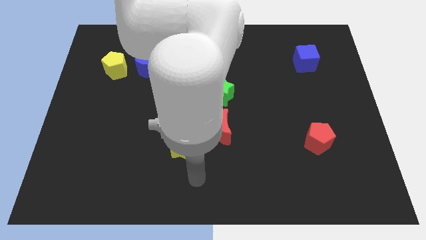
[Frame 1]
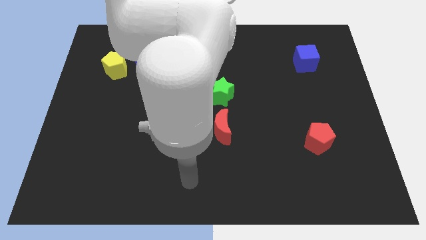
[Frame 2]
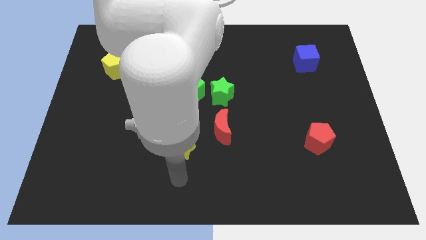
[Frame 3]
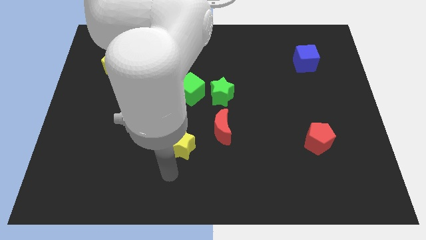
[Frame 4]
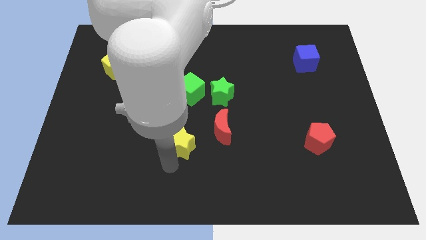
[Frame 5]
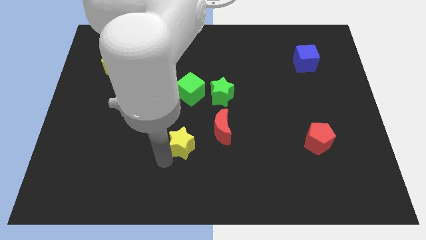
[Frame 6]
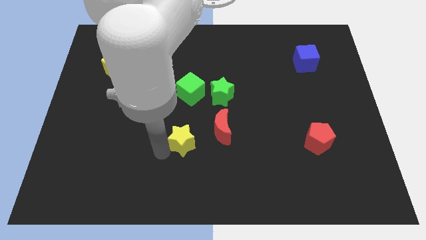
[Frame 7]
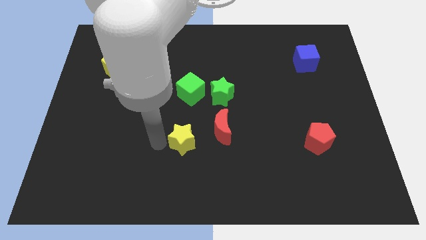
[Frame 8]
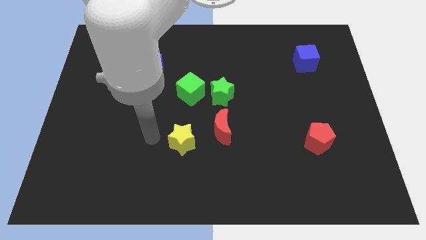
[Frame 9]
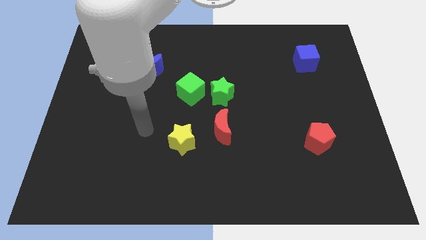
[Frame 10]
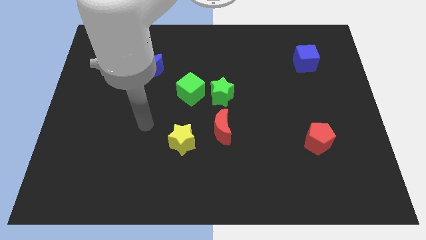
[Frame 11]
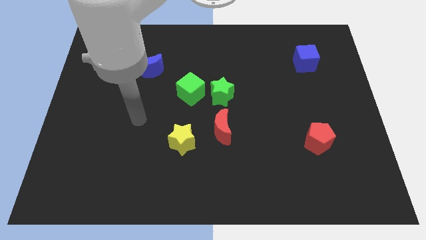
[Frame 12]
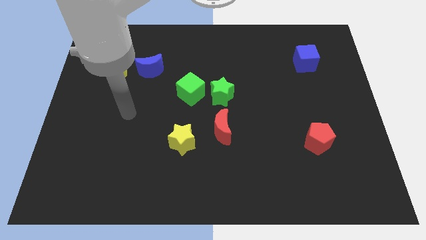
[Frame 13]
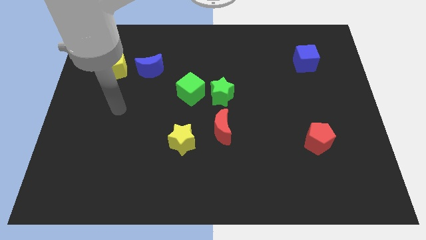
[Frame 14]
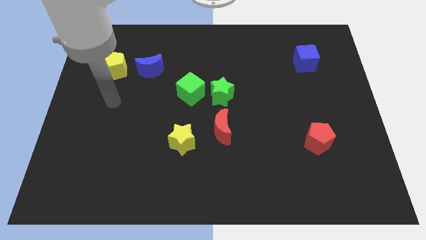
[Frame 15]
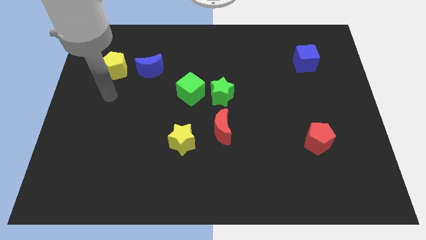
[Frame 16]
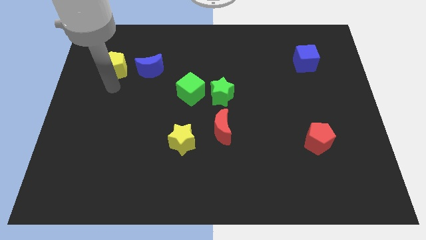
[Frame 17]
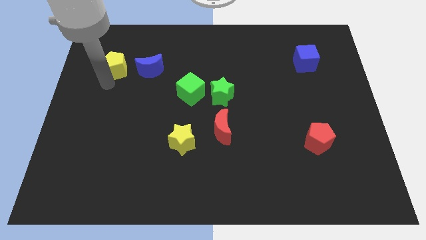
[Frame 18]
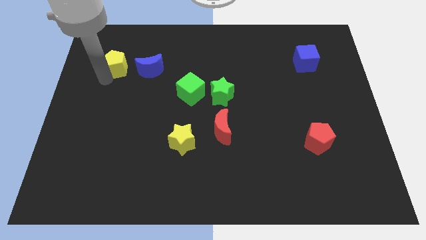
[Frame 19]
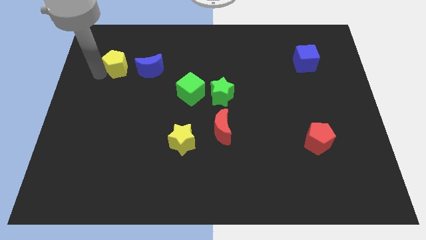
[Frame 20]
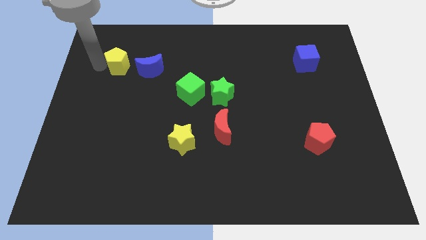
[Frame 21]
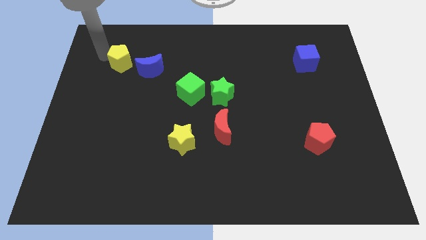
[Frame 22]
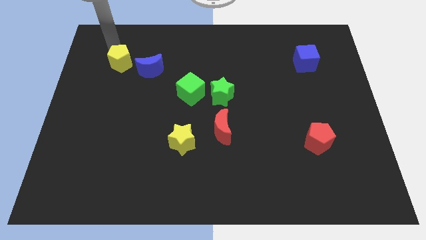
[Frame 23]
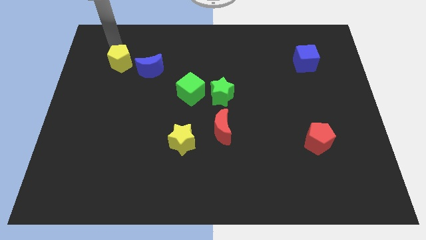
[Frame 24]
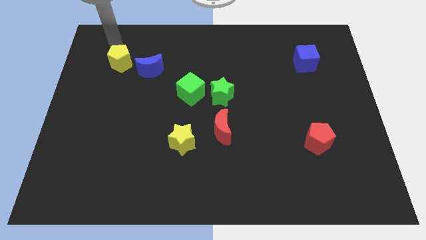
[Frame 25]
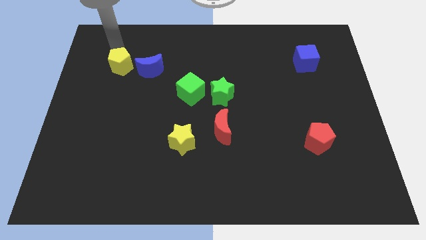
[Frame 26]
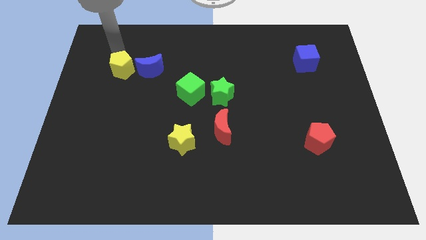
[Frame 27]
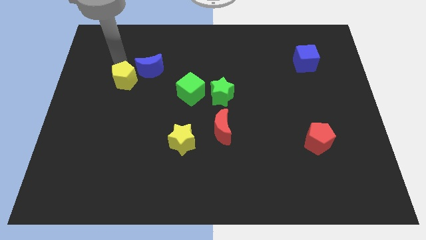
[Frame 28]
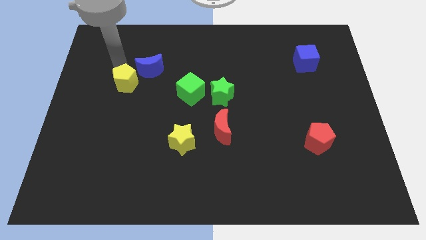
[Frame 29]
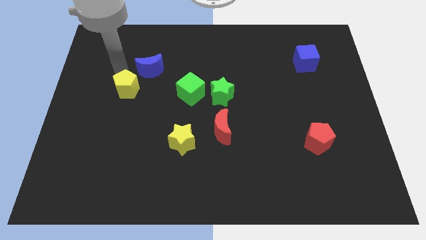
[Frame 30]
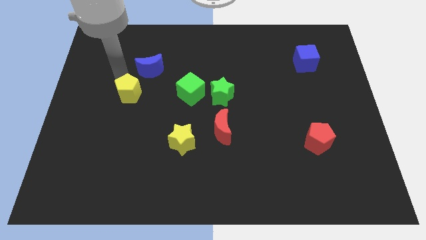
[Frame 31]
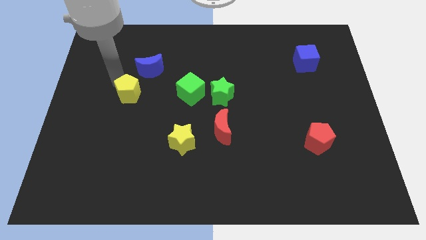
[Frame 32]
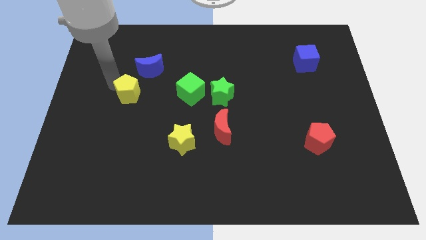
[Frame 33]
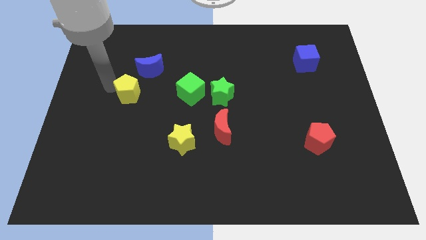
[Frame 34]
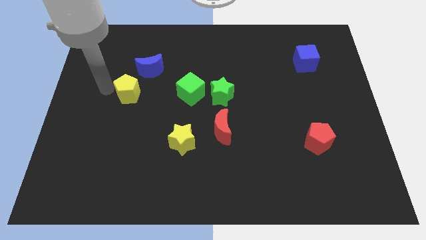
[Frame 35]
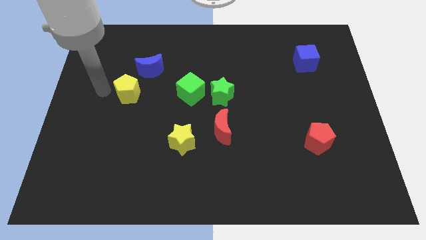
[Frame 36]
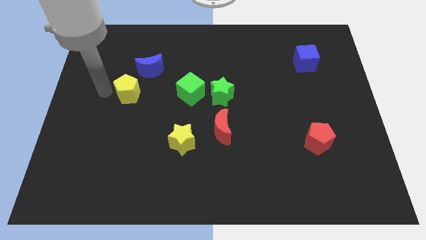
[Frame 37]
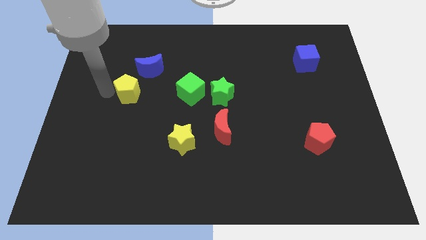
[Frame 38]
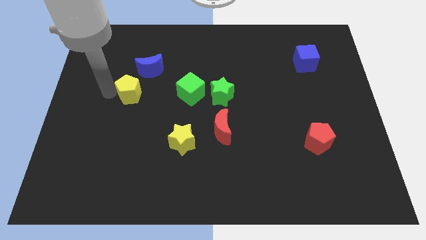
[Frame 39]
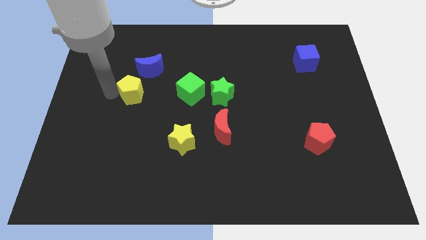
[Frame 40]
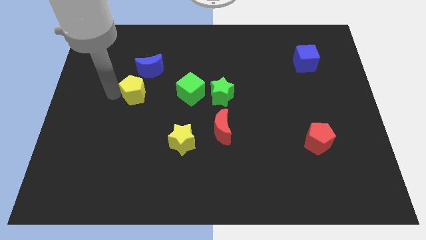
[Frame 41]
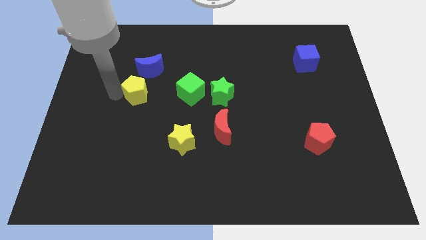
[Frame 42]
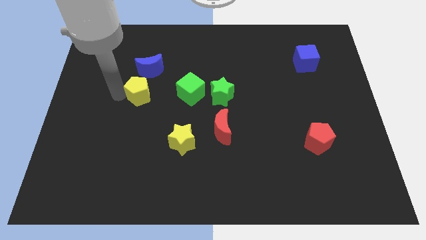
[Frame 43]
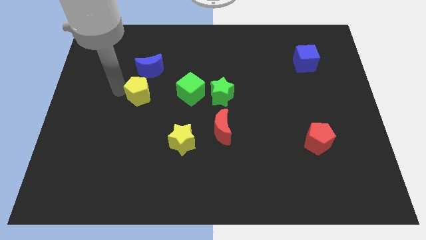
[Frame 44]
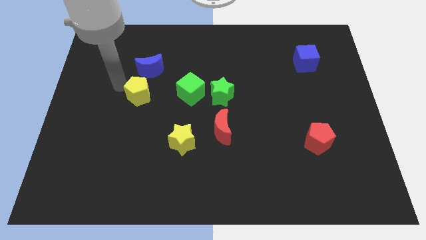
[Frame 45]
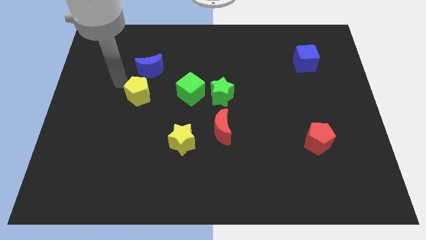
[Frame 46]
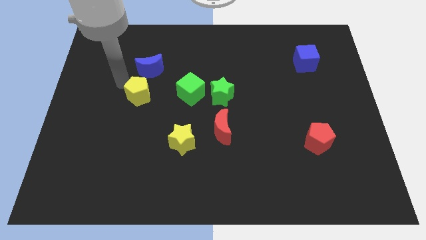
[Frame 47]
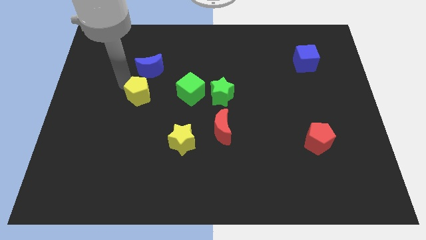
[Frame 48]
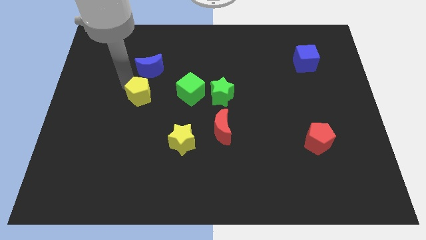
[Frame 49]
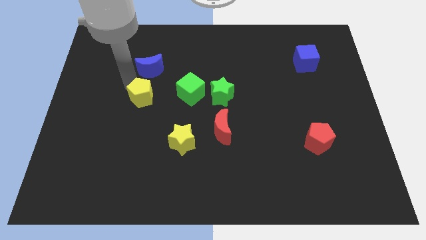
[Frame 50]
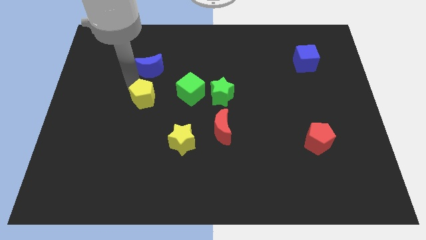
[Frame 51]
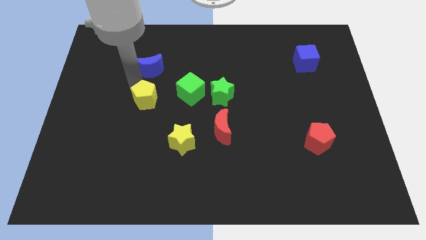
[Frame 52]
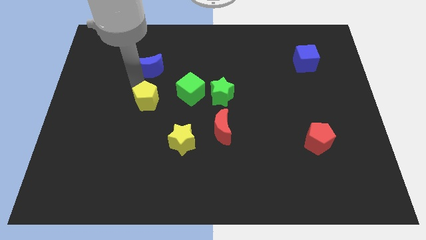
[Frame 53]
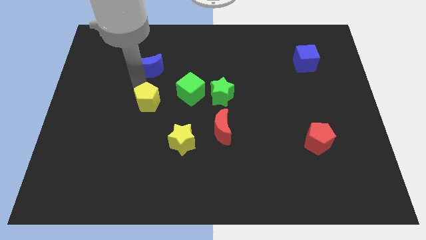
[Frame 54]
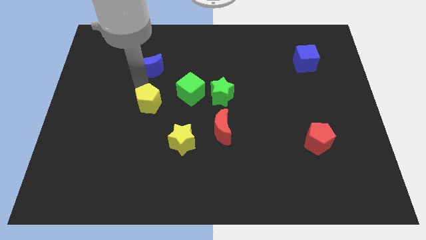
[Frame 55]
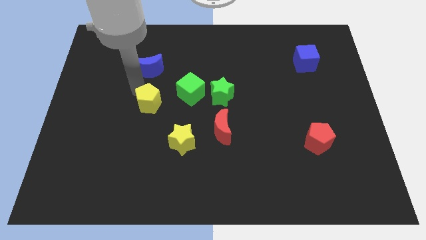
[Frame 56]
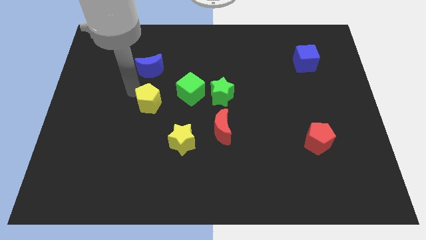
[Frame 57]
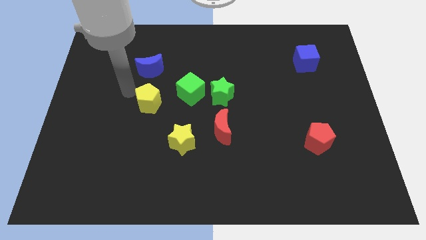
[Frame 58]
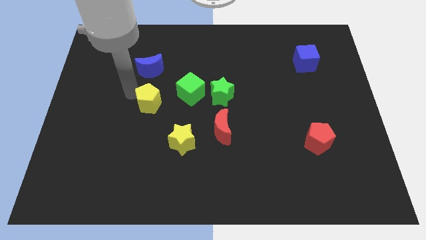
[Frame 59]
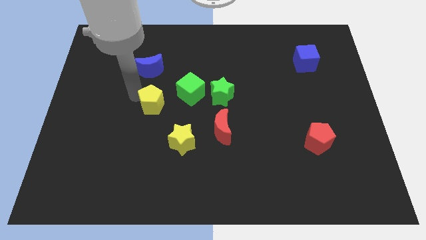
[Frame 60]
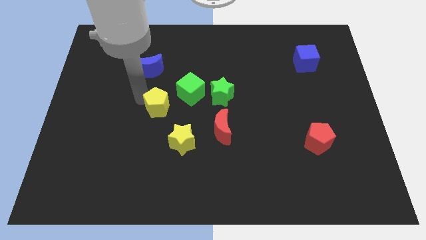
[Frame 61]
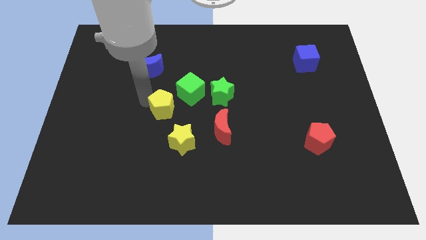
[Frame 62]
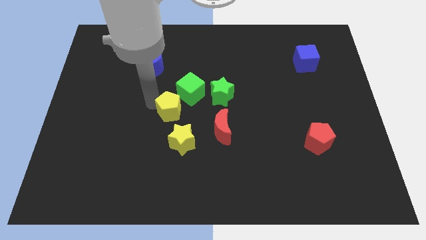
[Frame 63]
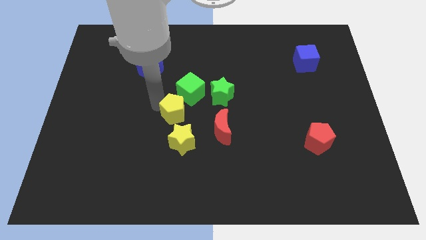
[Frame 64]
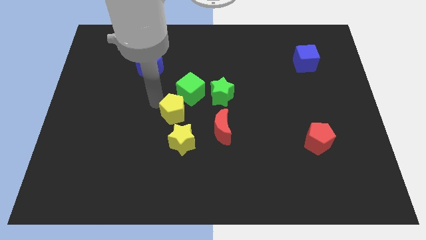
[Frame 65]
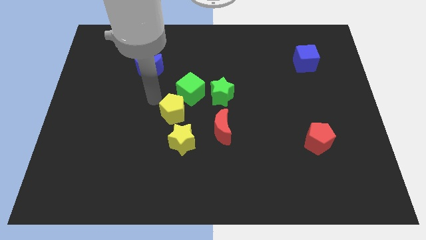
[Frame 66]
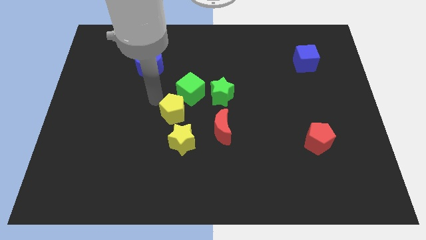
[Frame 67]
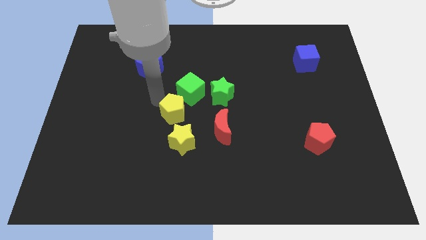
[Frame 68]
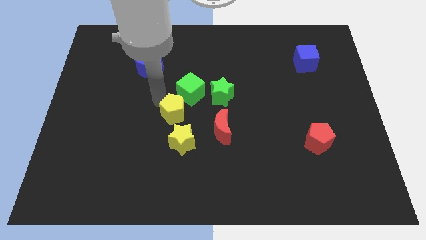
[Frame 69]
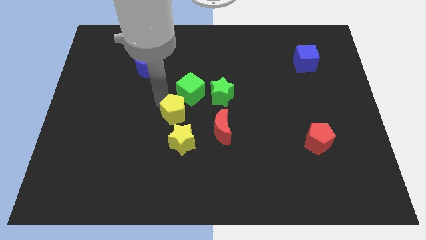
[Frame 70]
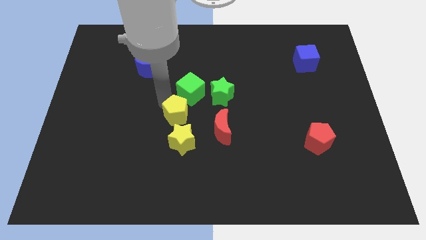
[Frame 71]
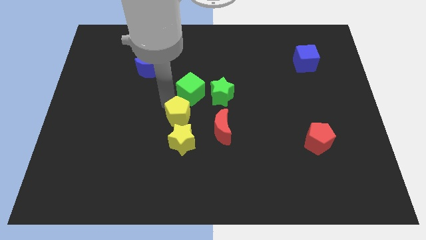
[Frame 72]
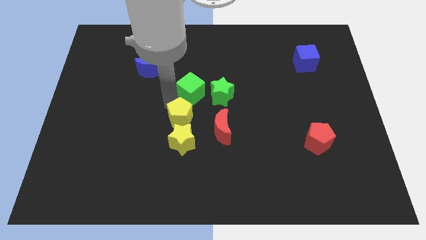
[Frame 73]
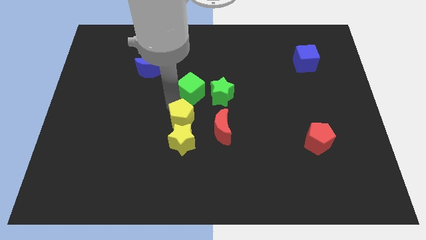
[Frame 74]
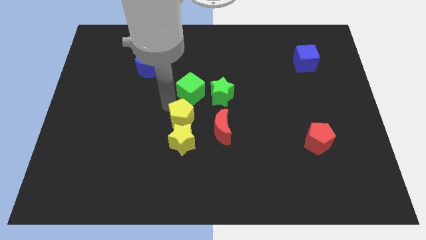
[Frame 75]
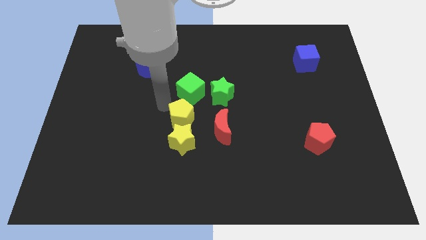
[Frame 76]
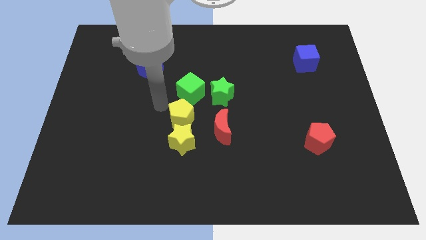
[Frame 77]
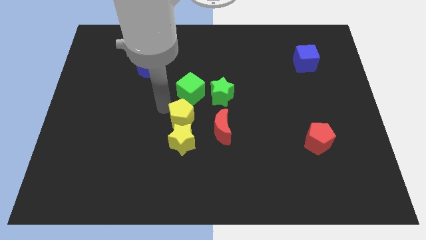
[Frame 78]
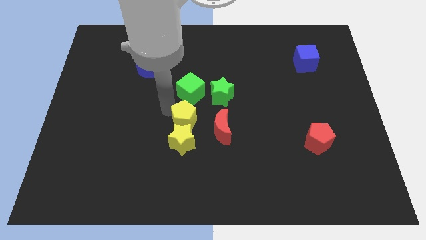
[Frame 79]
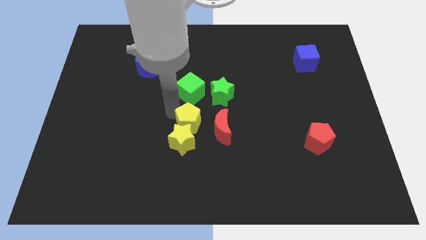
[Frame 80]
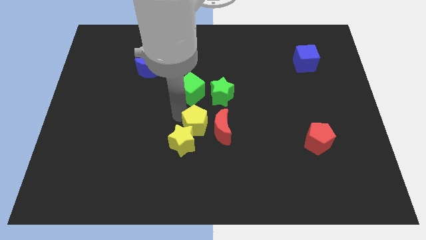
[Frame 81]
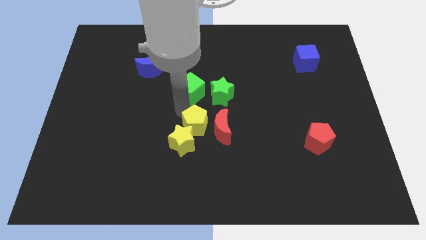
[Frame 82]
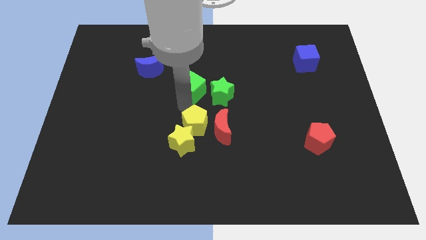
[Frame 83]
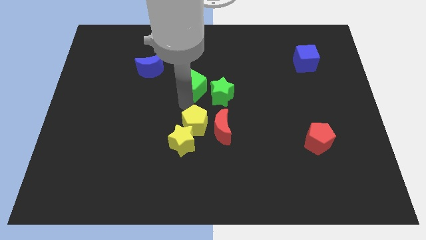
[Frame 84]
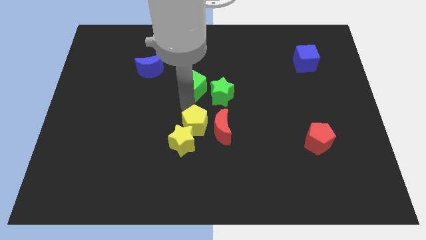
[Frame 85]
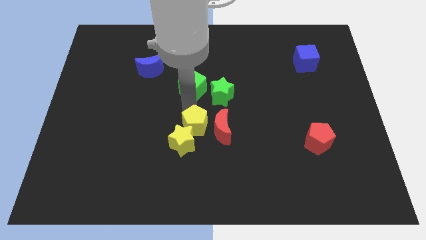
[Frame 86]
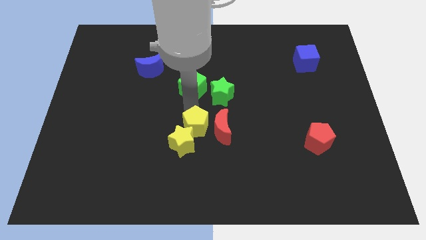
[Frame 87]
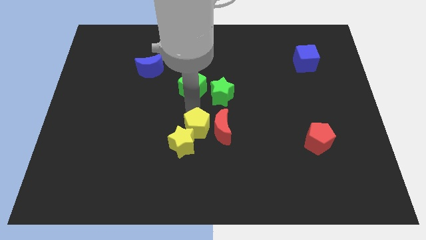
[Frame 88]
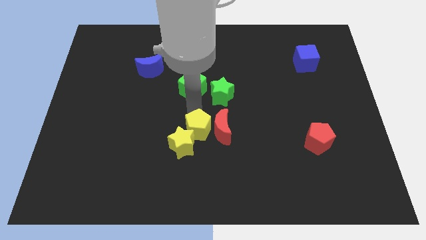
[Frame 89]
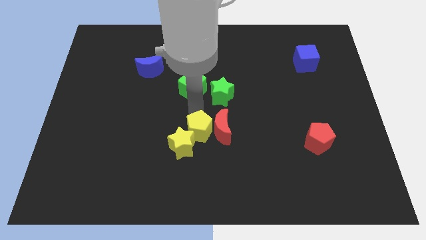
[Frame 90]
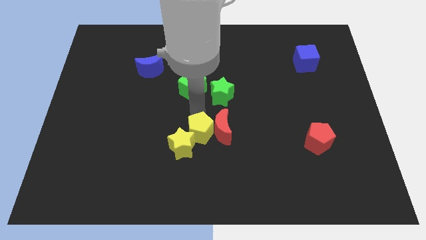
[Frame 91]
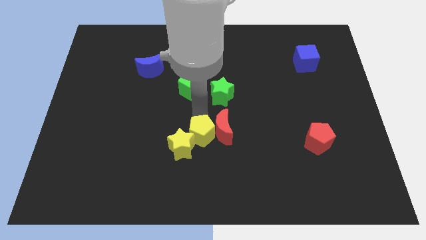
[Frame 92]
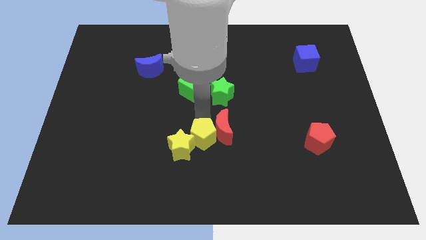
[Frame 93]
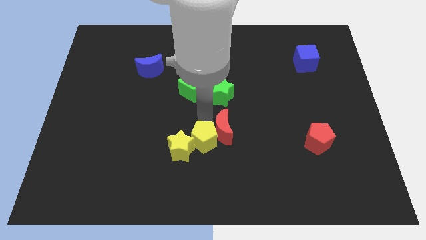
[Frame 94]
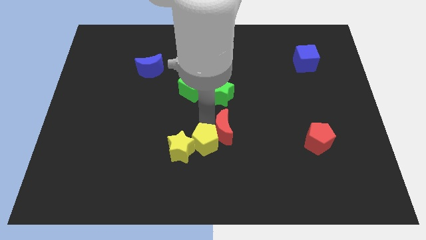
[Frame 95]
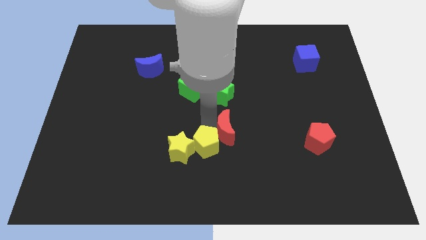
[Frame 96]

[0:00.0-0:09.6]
slide the yellow pentagon to the bottom right of the yellow star
